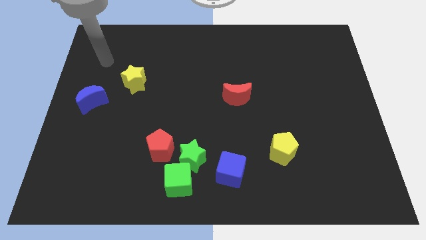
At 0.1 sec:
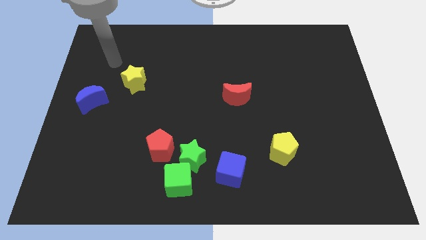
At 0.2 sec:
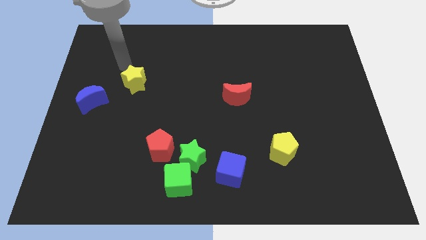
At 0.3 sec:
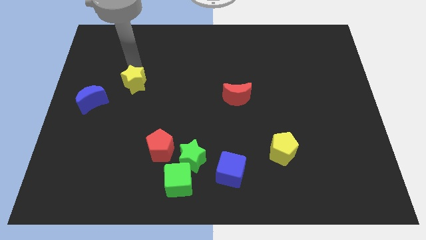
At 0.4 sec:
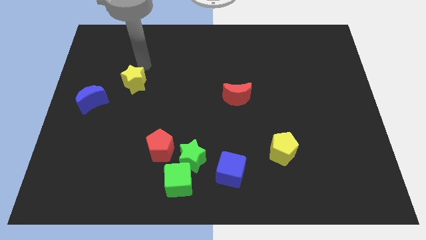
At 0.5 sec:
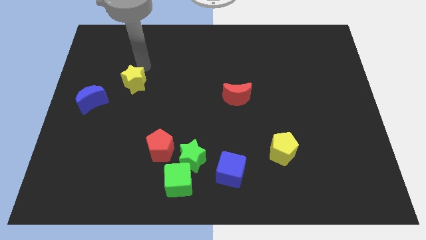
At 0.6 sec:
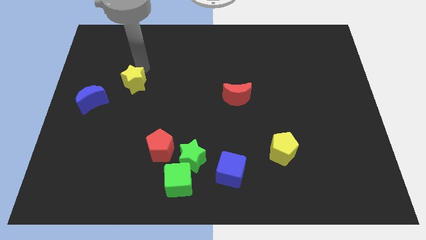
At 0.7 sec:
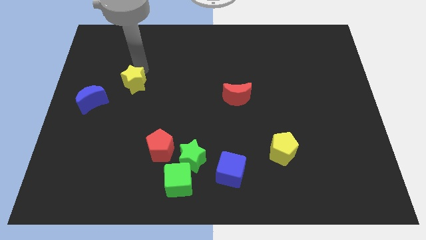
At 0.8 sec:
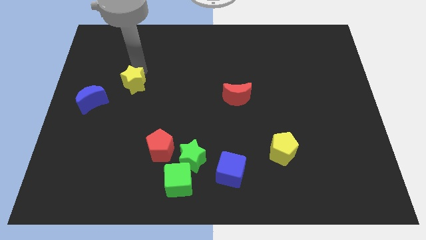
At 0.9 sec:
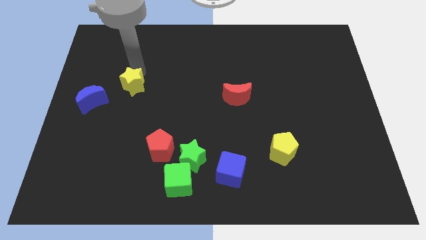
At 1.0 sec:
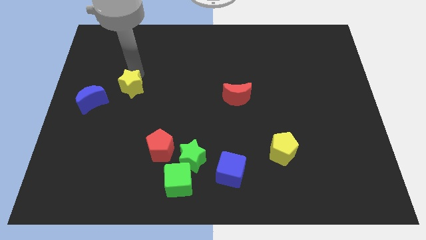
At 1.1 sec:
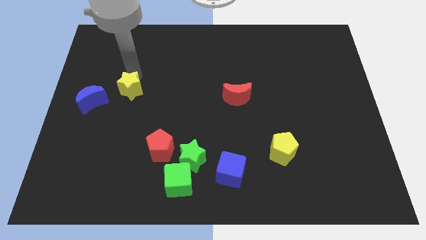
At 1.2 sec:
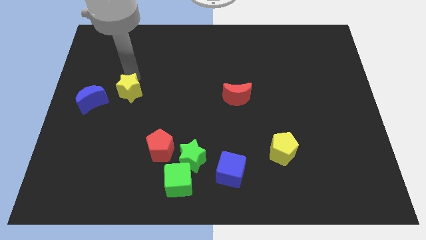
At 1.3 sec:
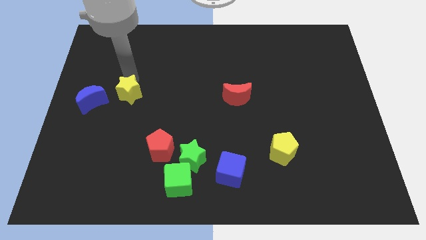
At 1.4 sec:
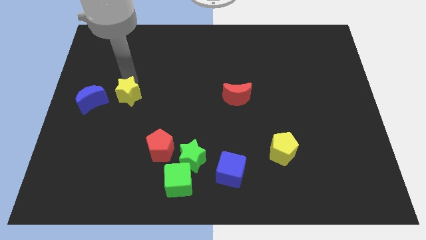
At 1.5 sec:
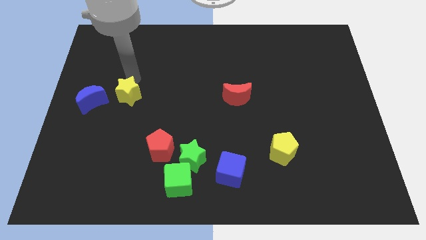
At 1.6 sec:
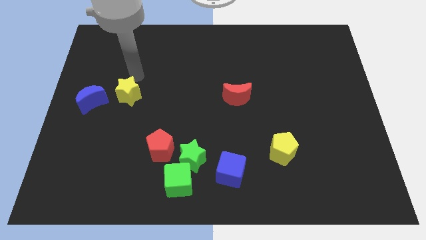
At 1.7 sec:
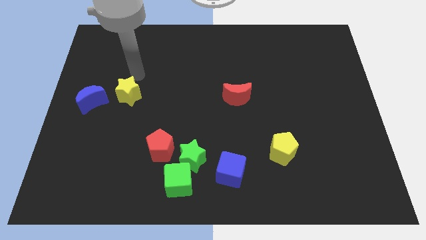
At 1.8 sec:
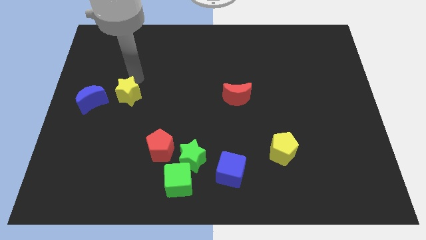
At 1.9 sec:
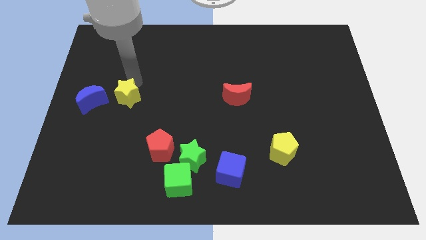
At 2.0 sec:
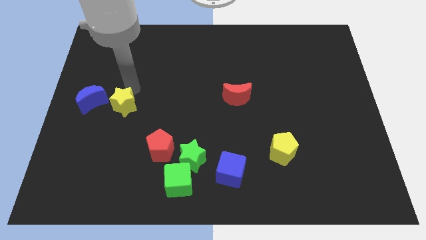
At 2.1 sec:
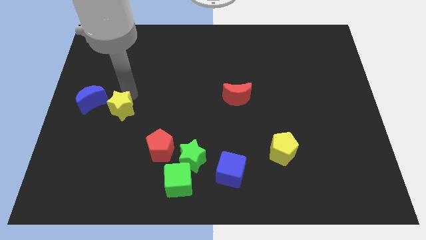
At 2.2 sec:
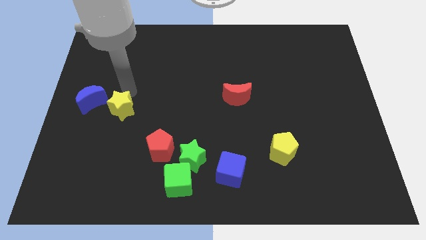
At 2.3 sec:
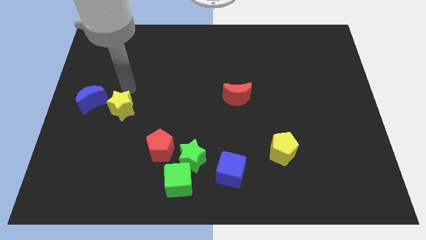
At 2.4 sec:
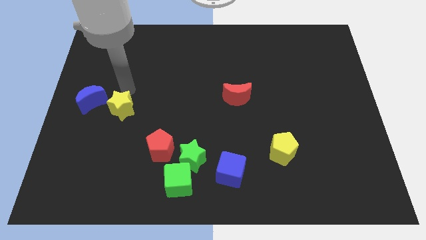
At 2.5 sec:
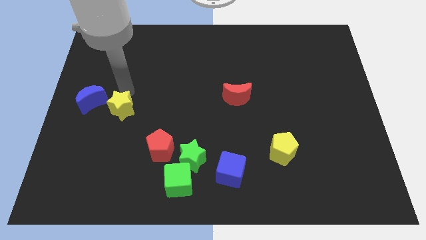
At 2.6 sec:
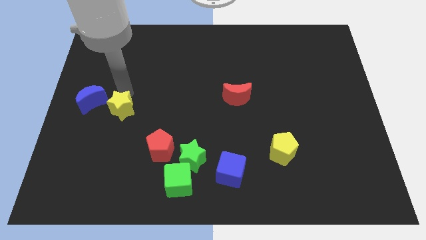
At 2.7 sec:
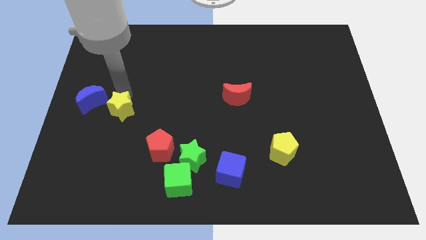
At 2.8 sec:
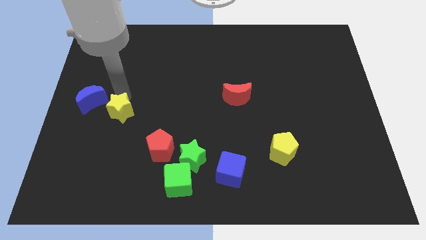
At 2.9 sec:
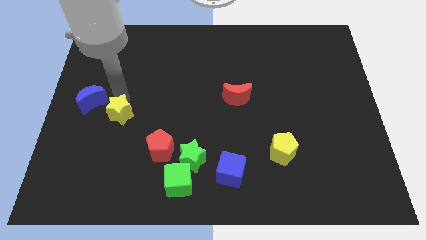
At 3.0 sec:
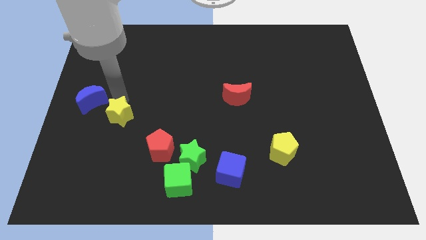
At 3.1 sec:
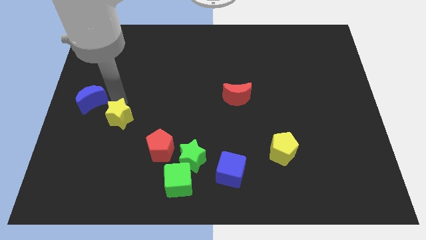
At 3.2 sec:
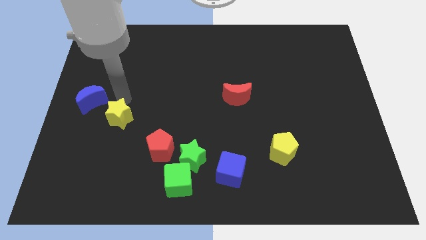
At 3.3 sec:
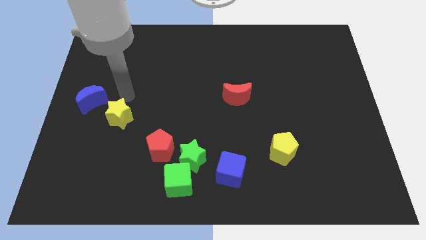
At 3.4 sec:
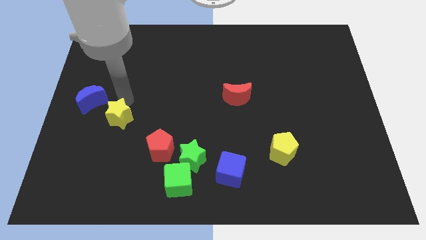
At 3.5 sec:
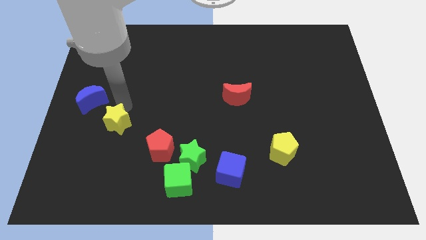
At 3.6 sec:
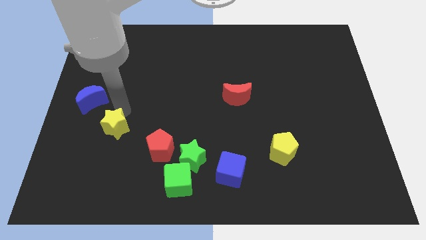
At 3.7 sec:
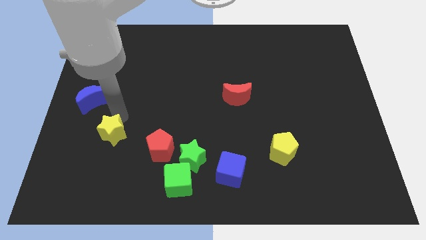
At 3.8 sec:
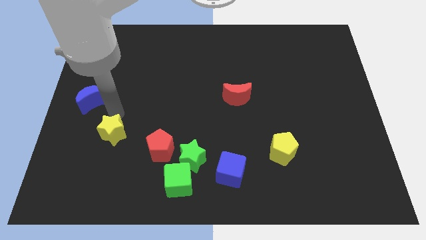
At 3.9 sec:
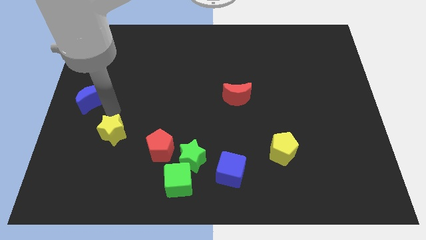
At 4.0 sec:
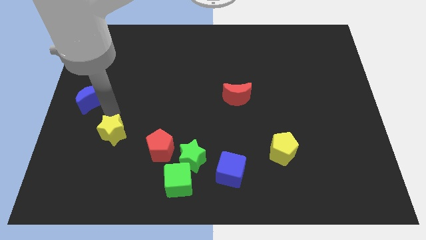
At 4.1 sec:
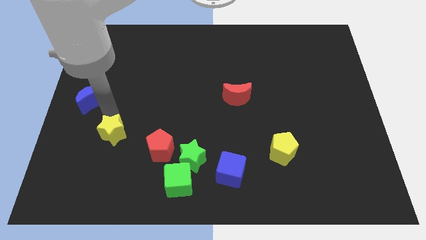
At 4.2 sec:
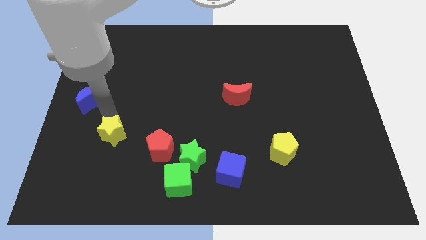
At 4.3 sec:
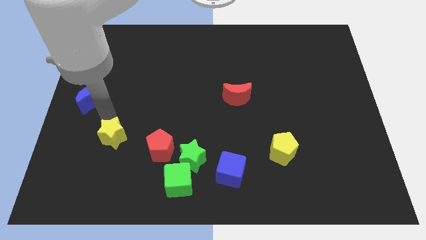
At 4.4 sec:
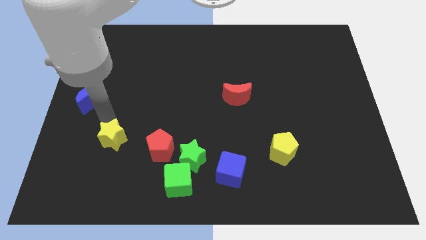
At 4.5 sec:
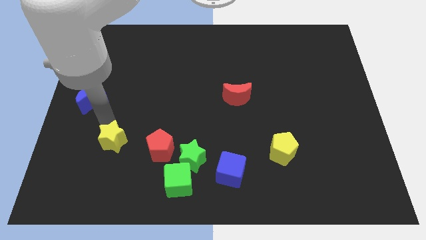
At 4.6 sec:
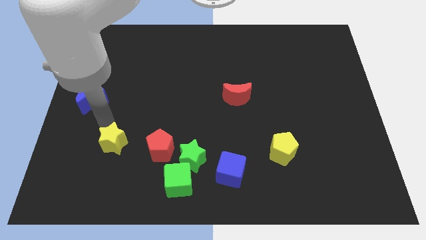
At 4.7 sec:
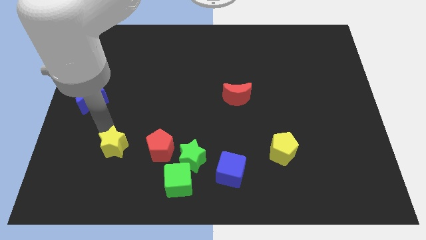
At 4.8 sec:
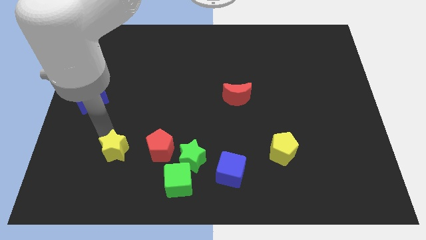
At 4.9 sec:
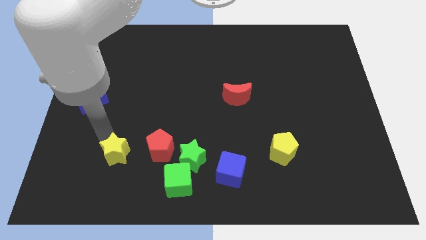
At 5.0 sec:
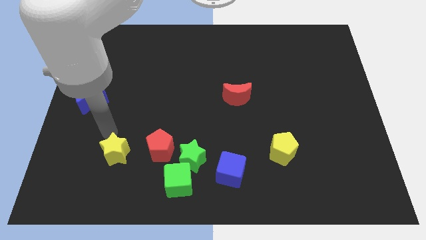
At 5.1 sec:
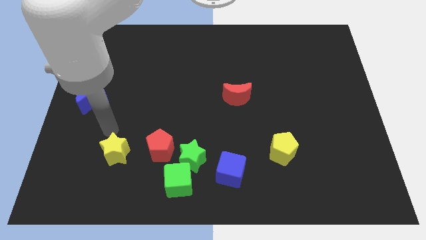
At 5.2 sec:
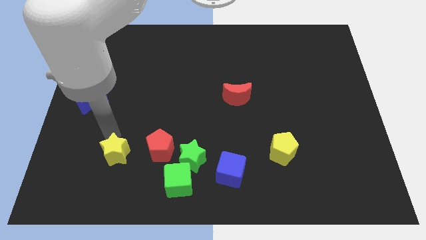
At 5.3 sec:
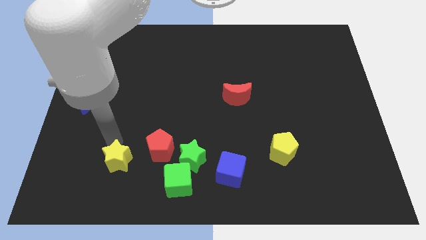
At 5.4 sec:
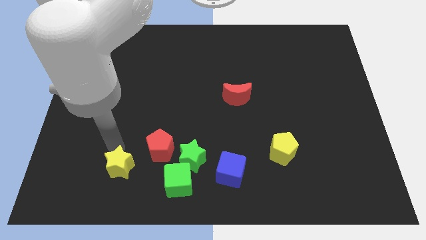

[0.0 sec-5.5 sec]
put the yellow star to the left of the green cube

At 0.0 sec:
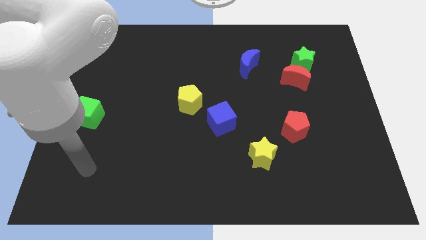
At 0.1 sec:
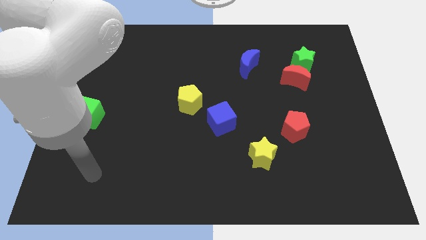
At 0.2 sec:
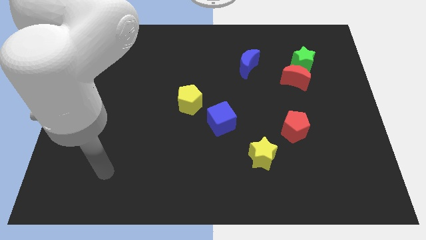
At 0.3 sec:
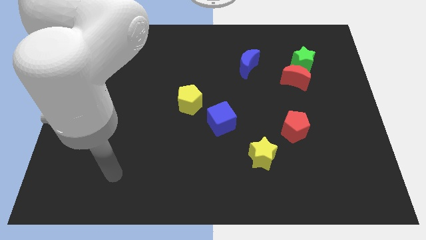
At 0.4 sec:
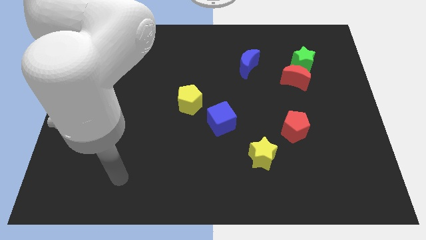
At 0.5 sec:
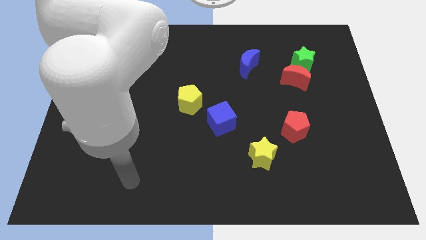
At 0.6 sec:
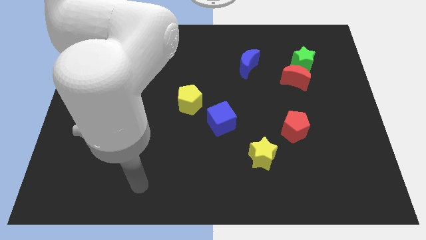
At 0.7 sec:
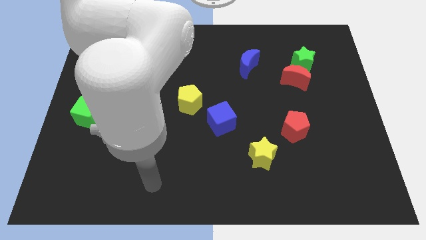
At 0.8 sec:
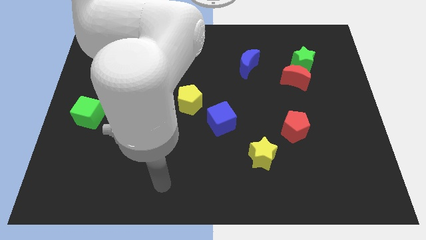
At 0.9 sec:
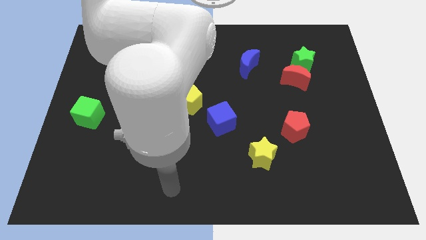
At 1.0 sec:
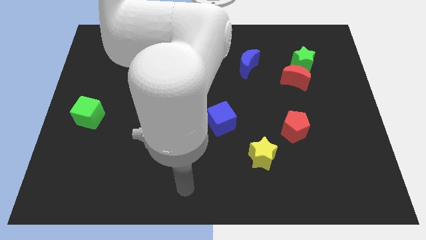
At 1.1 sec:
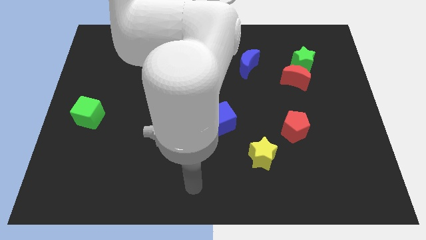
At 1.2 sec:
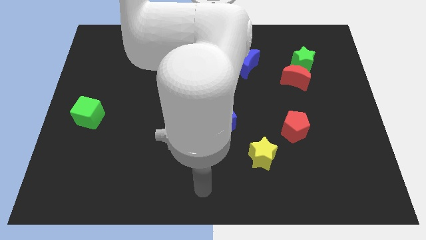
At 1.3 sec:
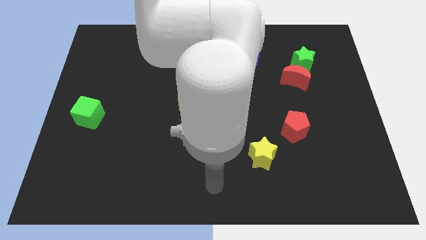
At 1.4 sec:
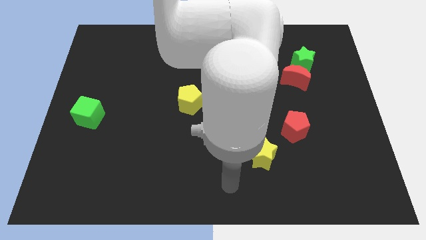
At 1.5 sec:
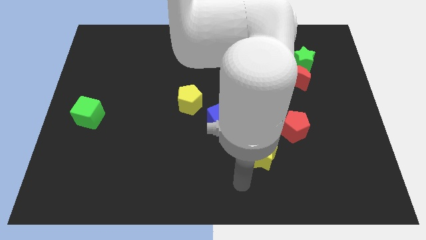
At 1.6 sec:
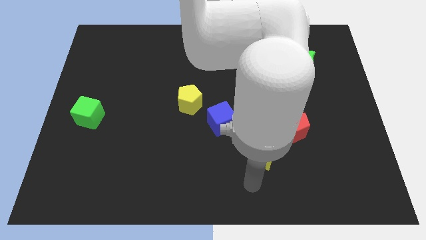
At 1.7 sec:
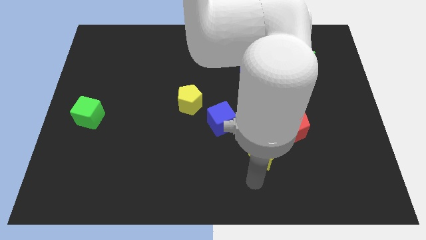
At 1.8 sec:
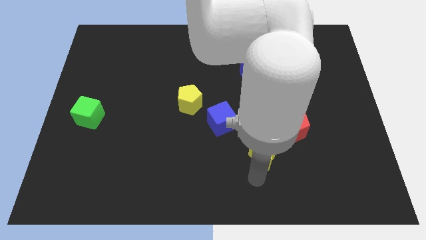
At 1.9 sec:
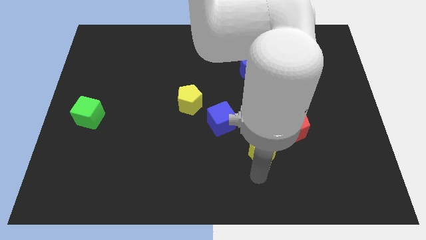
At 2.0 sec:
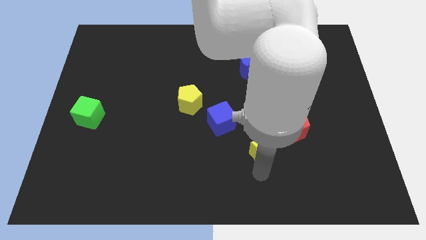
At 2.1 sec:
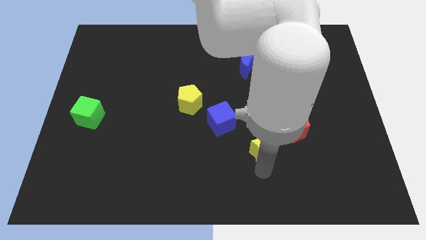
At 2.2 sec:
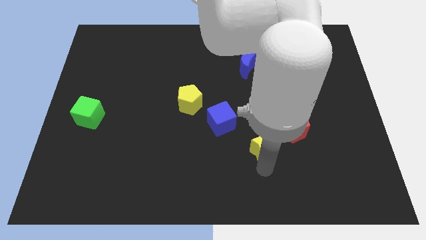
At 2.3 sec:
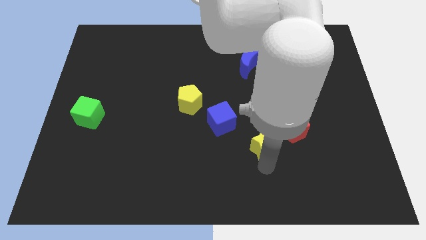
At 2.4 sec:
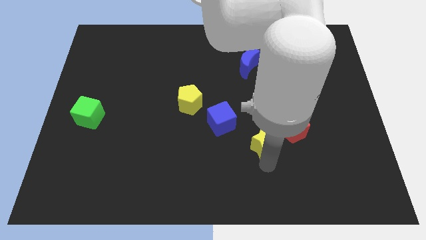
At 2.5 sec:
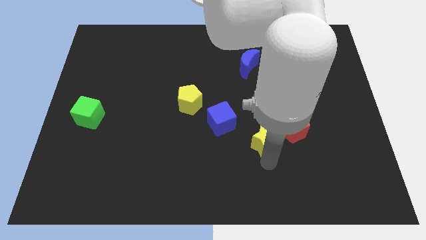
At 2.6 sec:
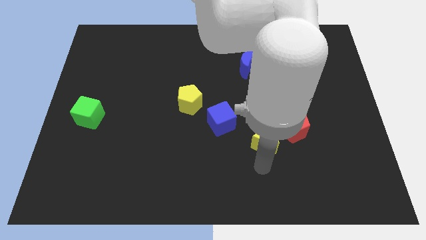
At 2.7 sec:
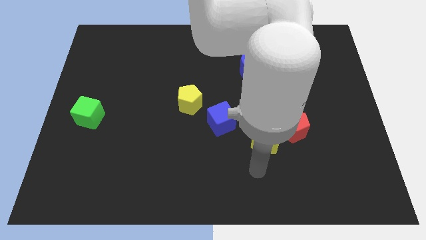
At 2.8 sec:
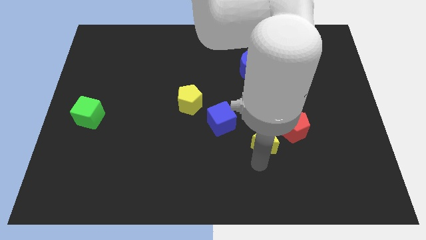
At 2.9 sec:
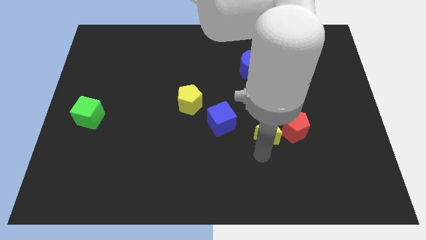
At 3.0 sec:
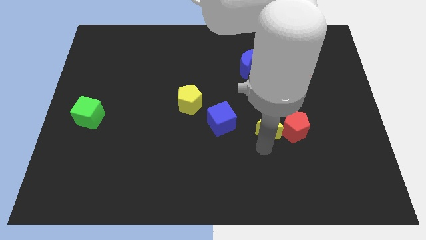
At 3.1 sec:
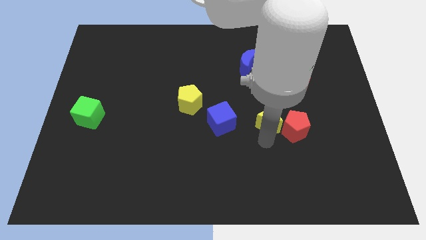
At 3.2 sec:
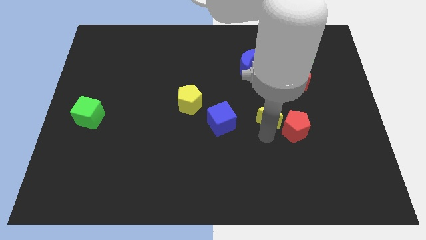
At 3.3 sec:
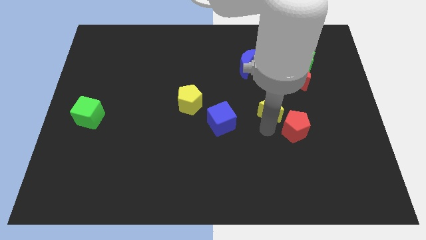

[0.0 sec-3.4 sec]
put the yellow star diagonally down and to the left of the red moon
